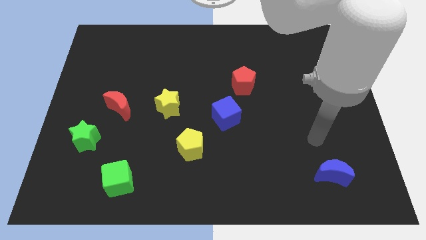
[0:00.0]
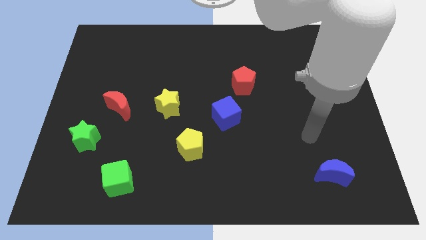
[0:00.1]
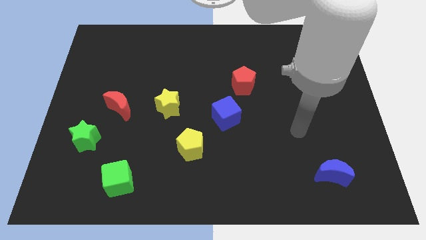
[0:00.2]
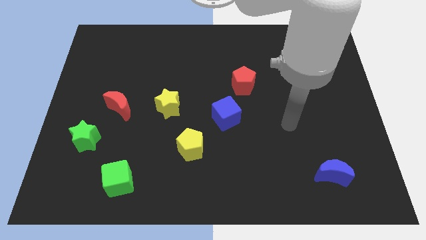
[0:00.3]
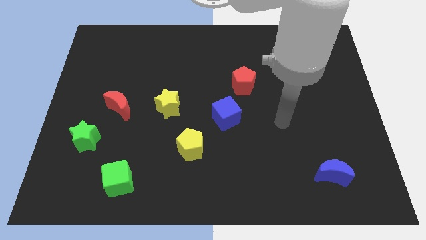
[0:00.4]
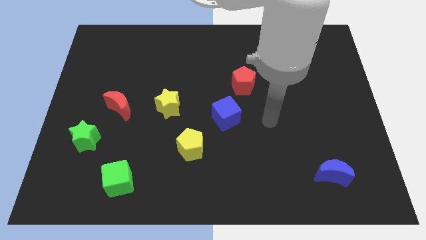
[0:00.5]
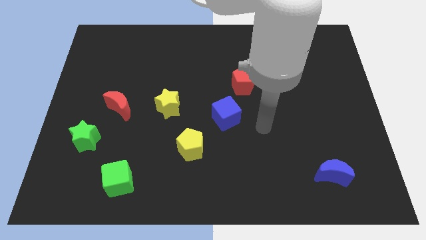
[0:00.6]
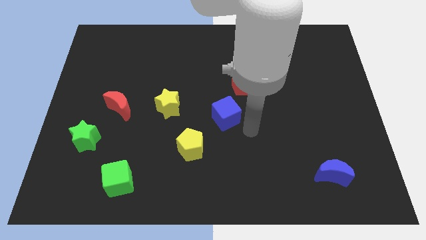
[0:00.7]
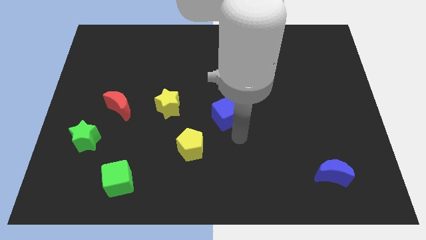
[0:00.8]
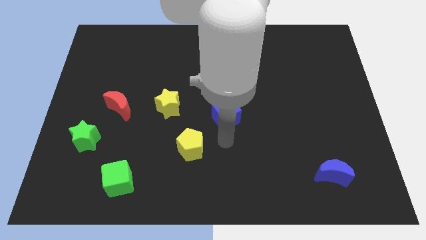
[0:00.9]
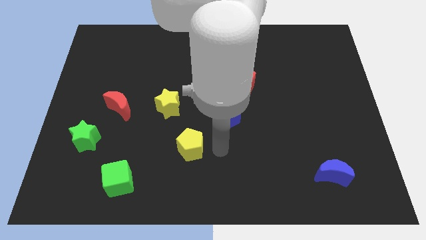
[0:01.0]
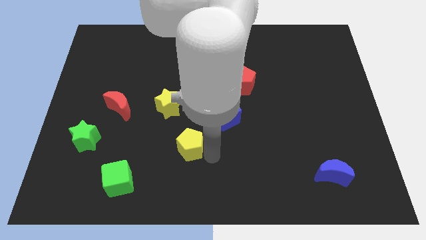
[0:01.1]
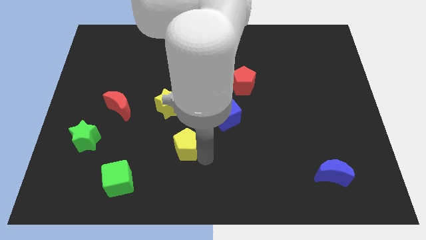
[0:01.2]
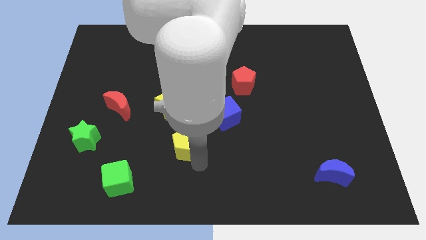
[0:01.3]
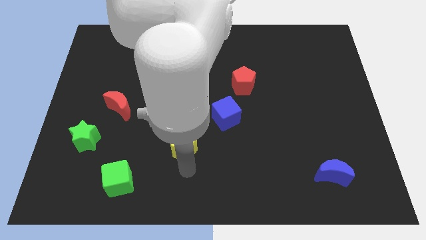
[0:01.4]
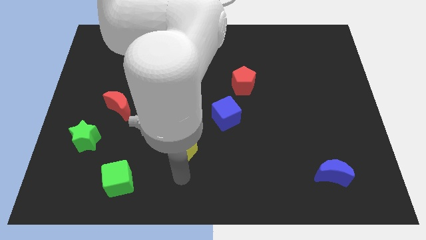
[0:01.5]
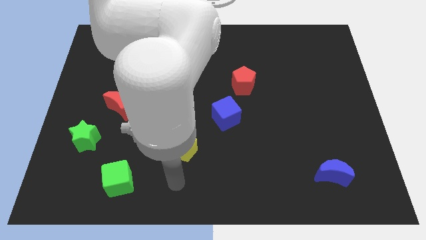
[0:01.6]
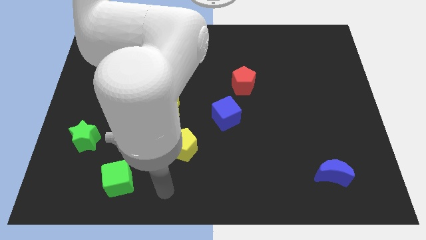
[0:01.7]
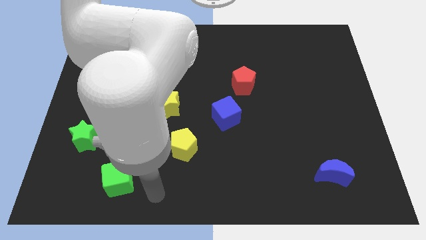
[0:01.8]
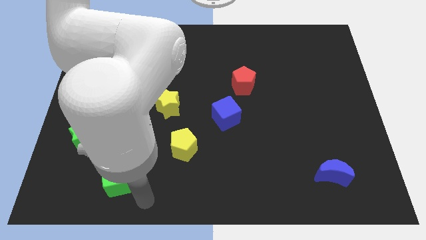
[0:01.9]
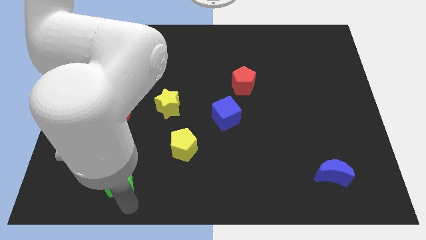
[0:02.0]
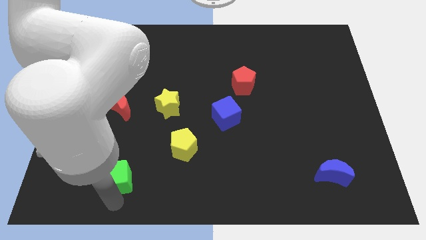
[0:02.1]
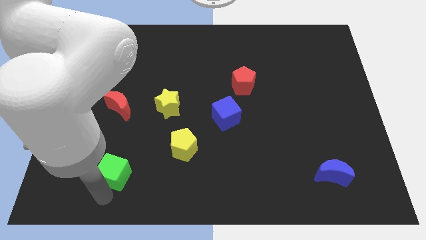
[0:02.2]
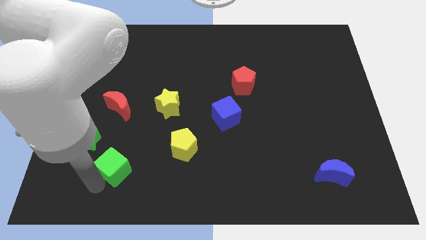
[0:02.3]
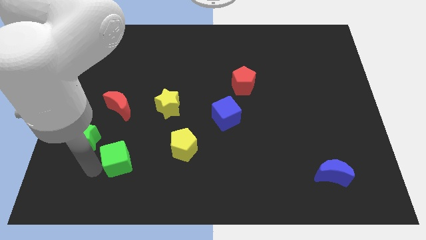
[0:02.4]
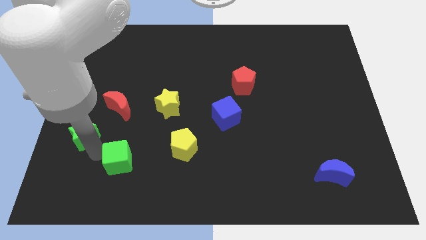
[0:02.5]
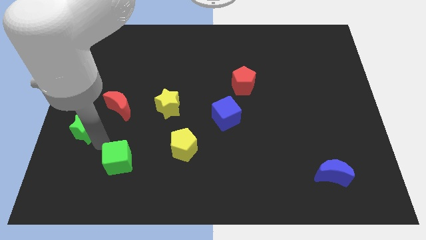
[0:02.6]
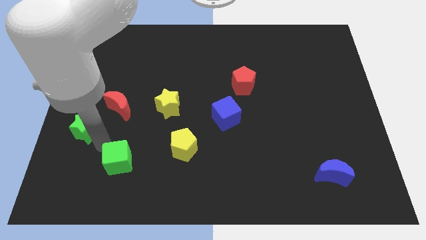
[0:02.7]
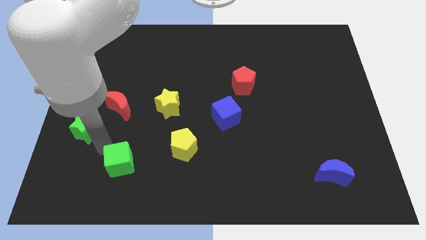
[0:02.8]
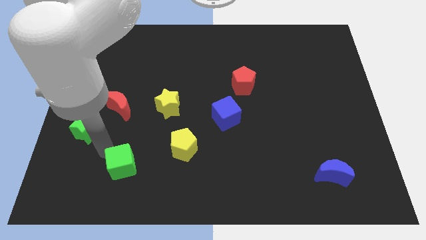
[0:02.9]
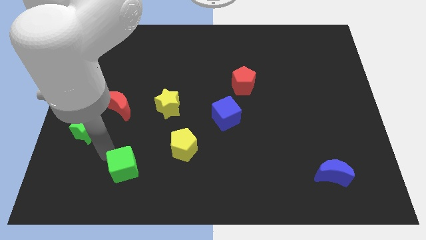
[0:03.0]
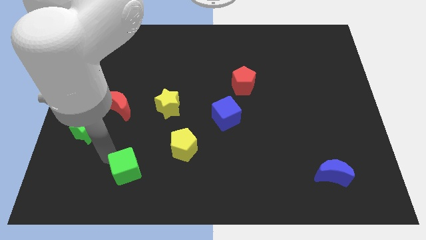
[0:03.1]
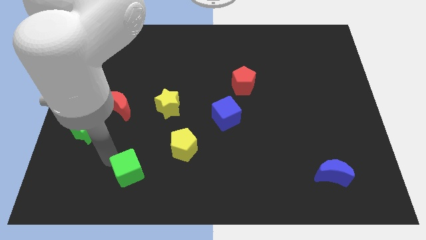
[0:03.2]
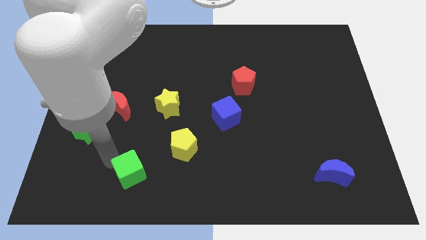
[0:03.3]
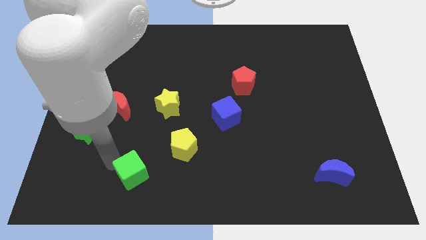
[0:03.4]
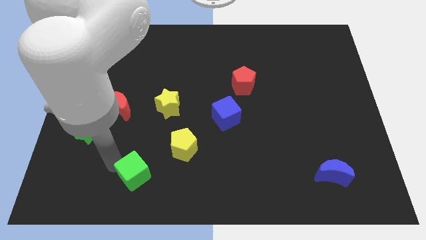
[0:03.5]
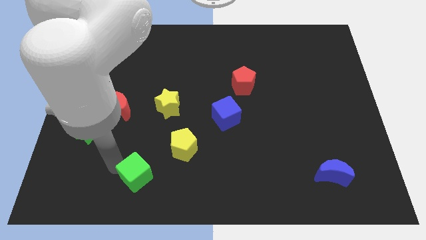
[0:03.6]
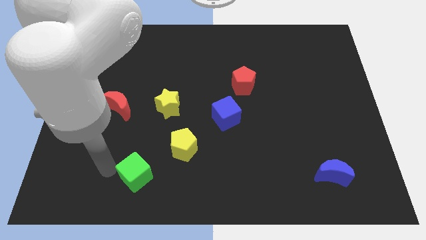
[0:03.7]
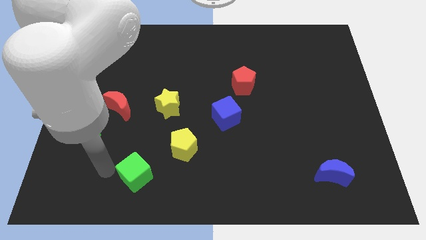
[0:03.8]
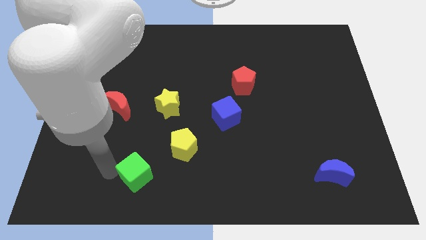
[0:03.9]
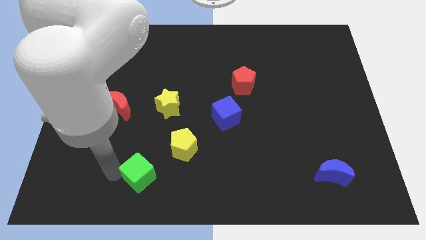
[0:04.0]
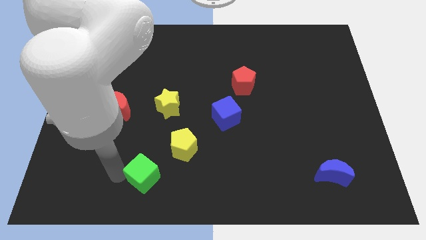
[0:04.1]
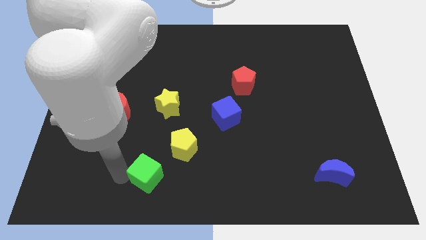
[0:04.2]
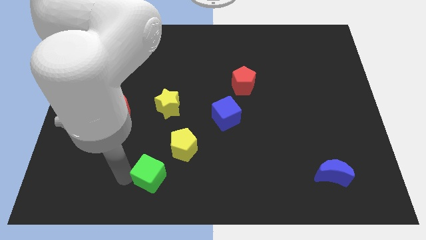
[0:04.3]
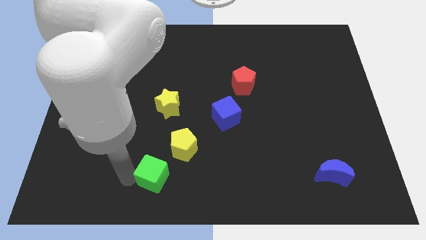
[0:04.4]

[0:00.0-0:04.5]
slide the green cube a little bit right

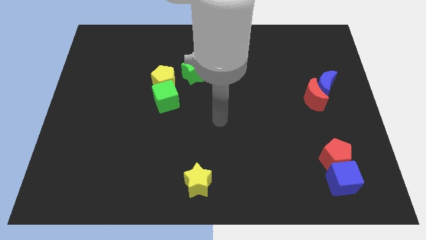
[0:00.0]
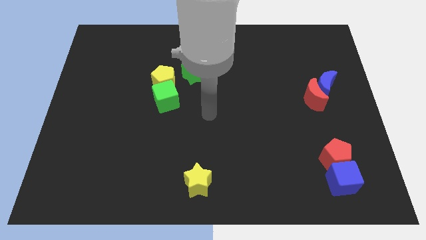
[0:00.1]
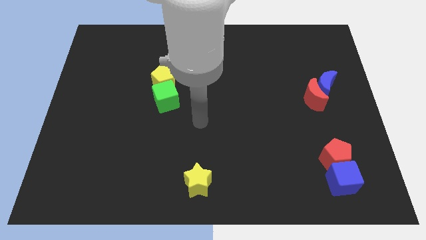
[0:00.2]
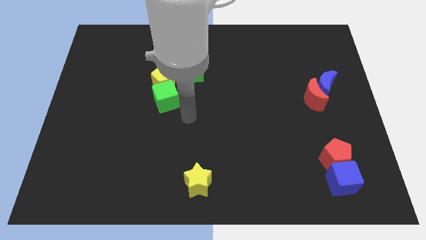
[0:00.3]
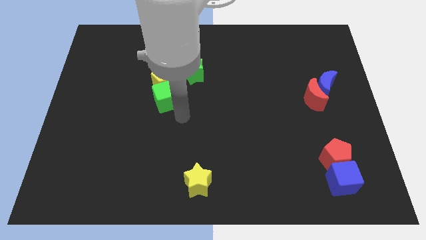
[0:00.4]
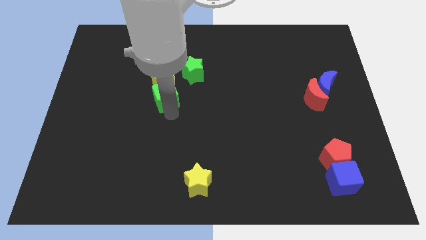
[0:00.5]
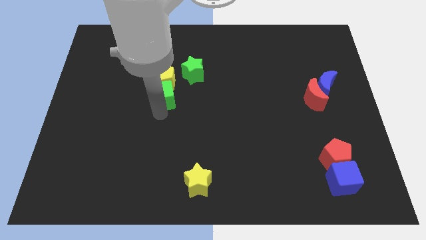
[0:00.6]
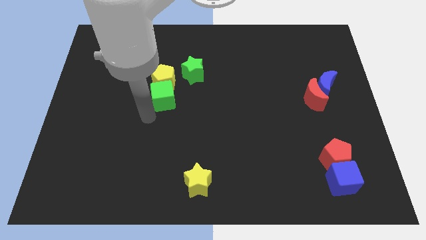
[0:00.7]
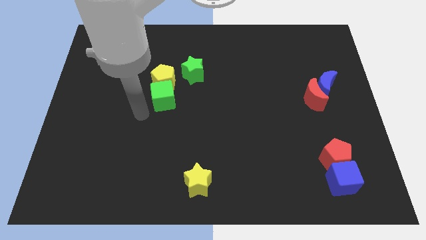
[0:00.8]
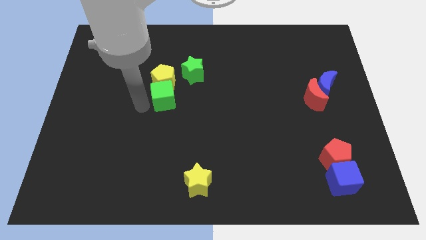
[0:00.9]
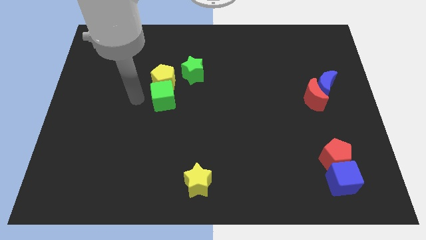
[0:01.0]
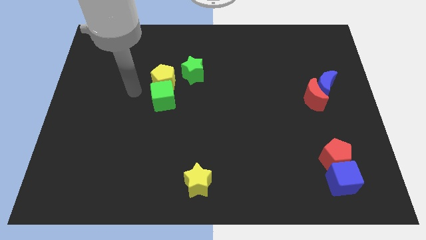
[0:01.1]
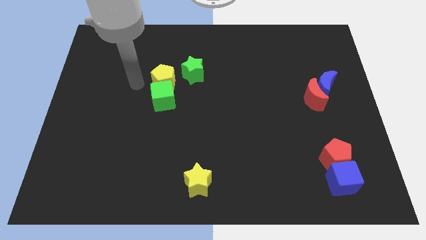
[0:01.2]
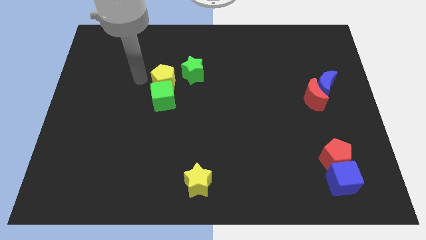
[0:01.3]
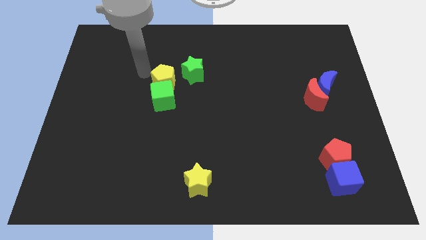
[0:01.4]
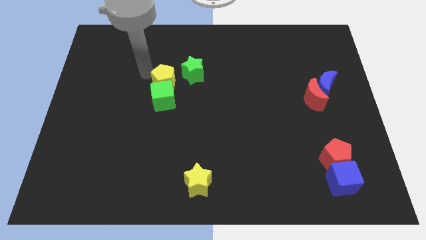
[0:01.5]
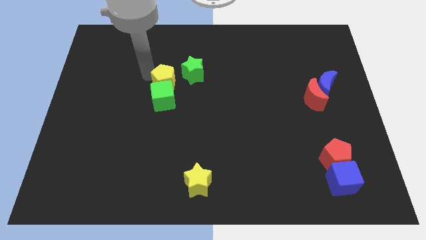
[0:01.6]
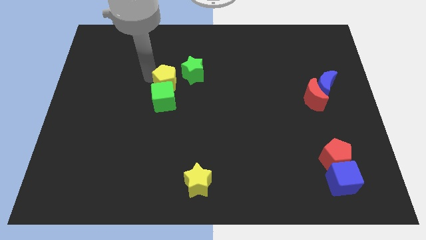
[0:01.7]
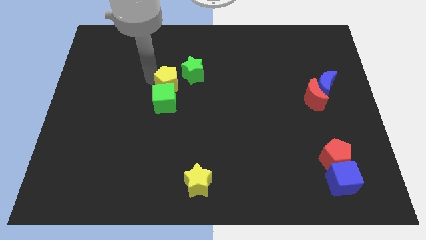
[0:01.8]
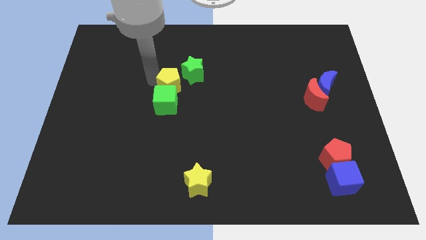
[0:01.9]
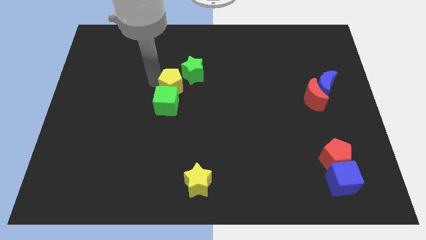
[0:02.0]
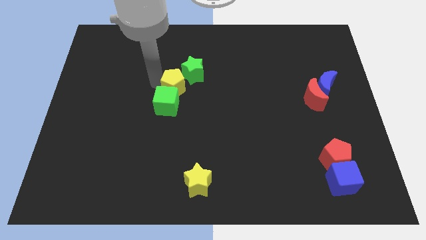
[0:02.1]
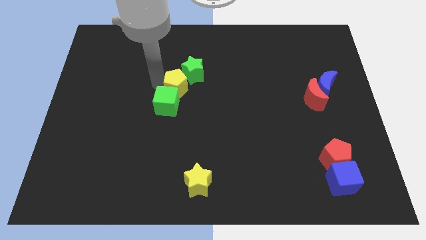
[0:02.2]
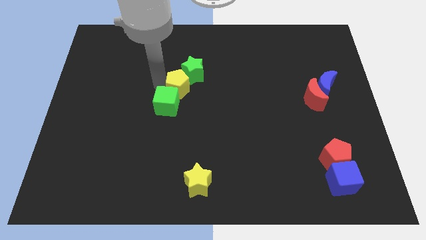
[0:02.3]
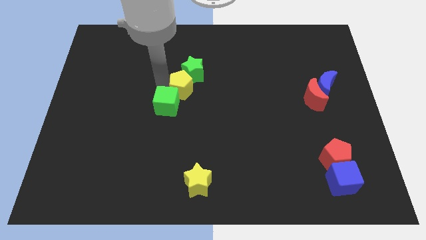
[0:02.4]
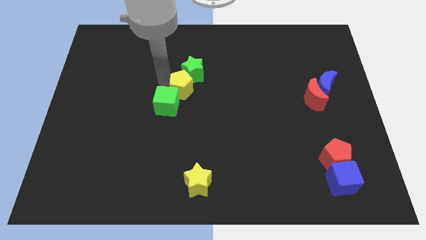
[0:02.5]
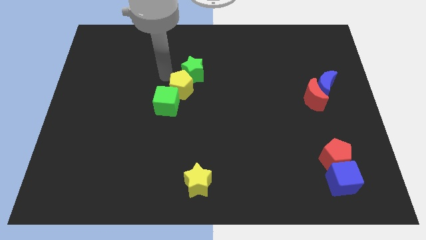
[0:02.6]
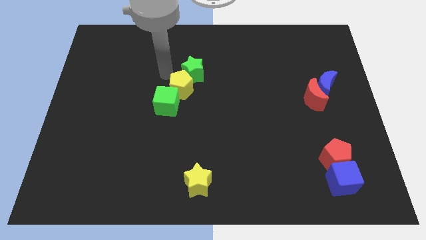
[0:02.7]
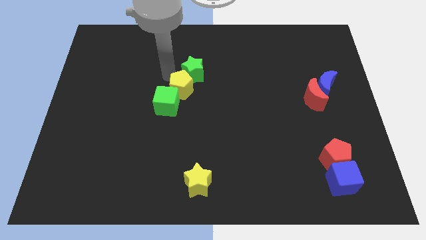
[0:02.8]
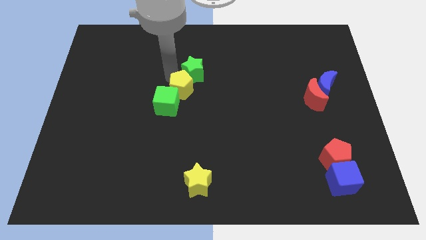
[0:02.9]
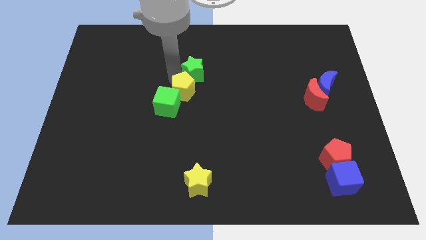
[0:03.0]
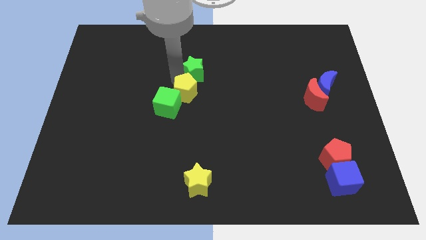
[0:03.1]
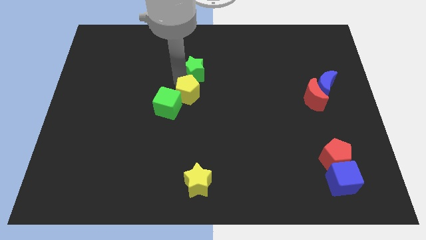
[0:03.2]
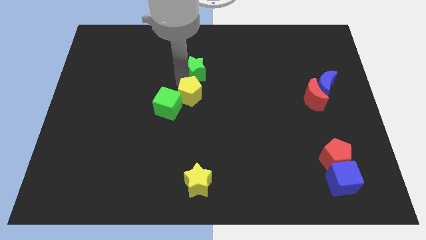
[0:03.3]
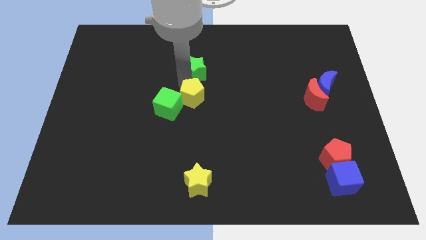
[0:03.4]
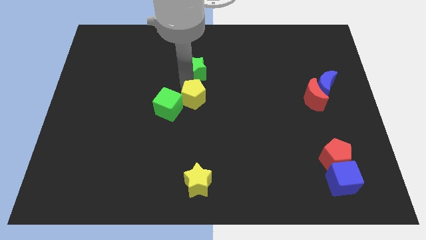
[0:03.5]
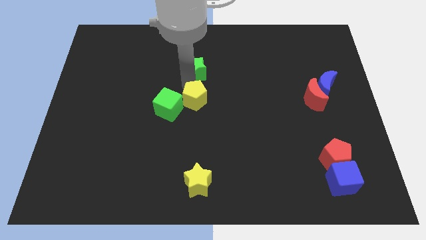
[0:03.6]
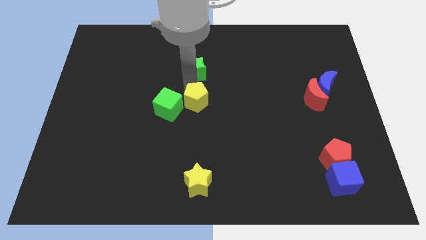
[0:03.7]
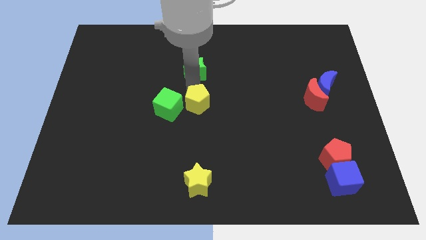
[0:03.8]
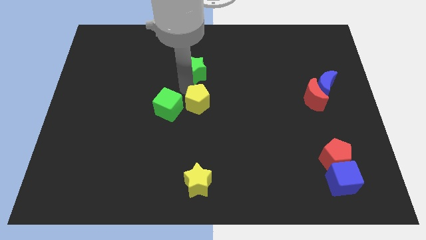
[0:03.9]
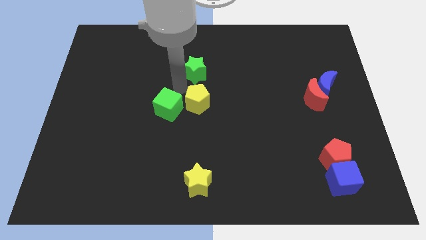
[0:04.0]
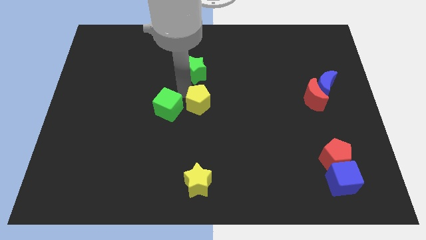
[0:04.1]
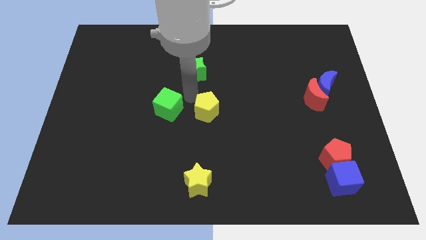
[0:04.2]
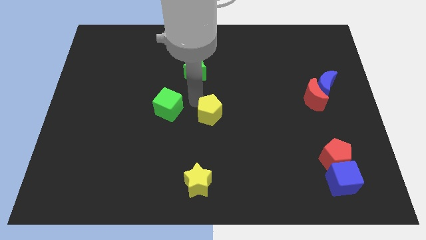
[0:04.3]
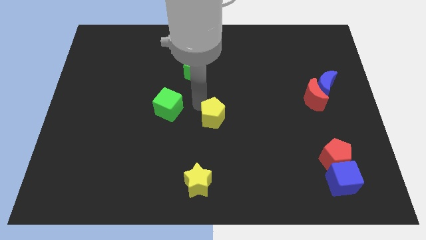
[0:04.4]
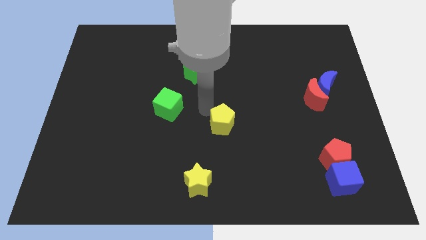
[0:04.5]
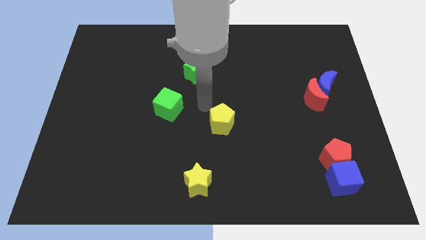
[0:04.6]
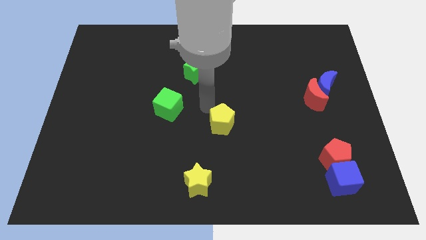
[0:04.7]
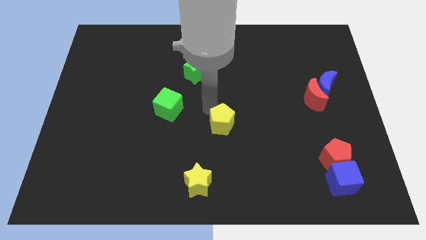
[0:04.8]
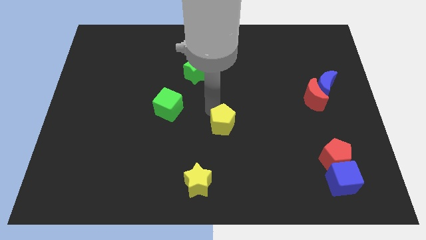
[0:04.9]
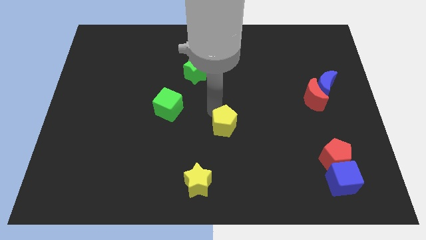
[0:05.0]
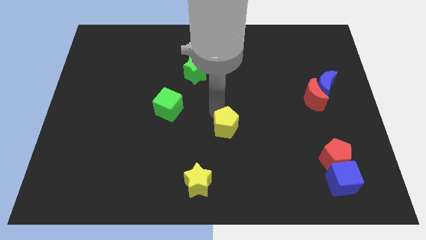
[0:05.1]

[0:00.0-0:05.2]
slide the yellow pentagon downwards and then right
